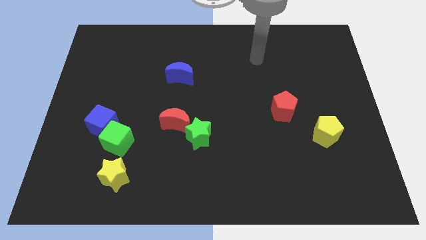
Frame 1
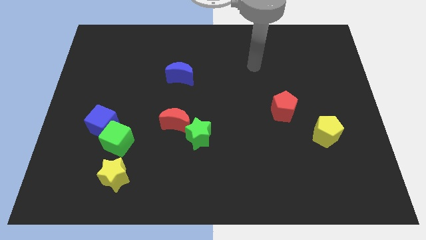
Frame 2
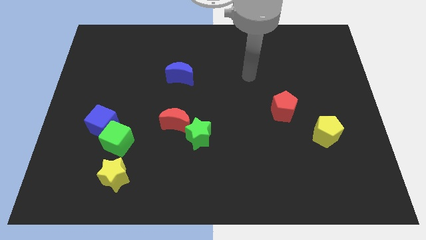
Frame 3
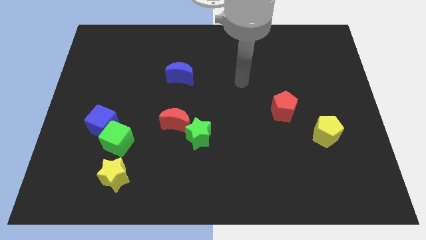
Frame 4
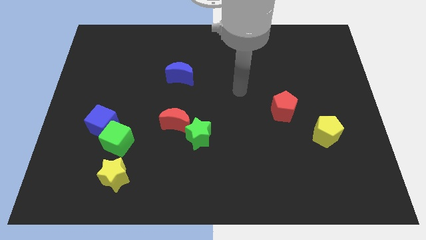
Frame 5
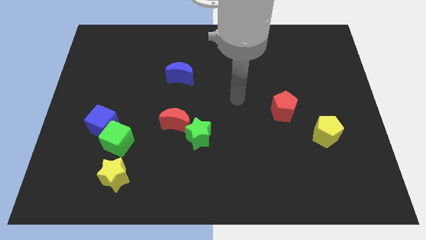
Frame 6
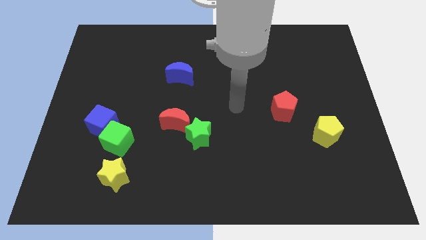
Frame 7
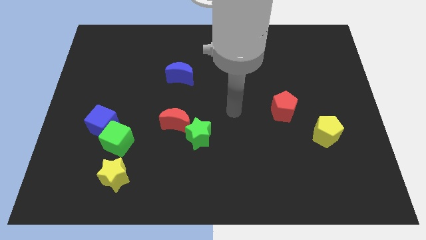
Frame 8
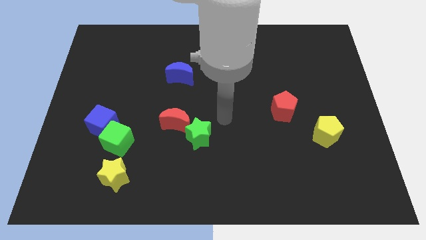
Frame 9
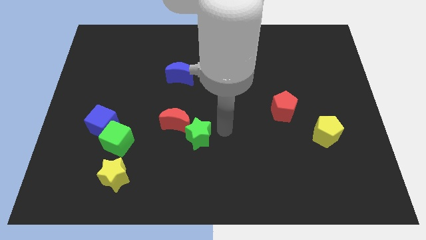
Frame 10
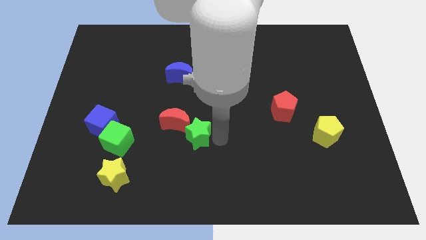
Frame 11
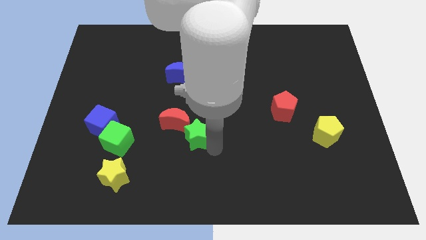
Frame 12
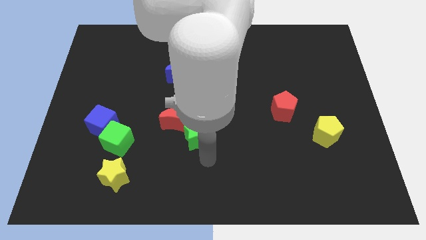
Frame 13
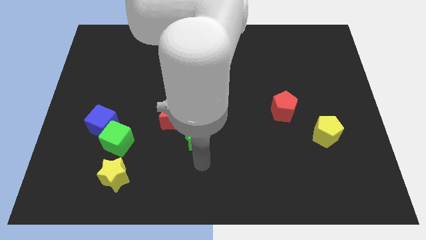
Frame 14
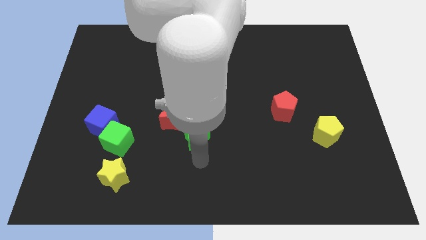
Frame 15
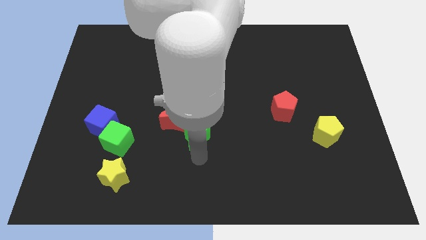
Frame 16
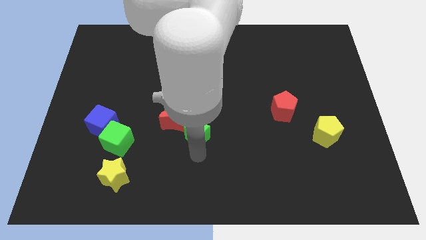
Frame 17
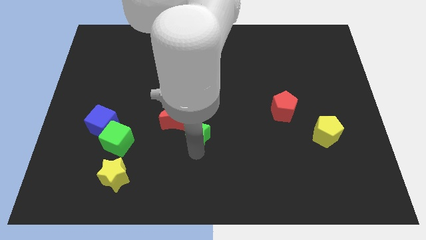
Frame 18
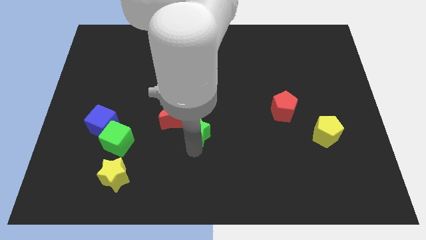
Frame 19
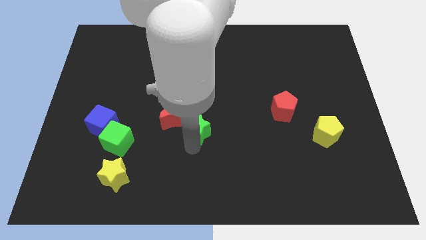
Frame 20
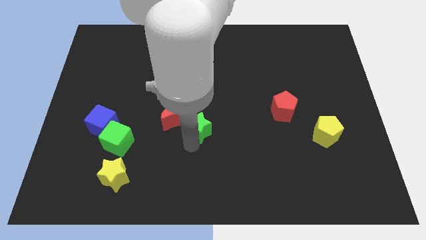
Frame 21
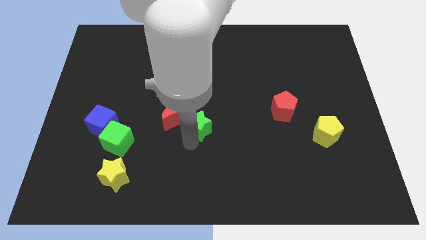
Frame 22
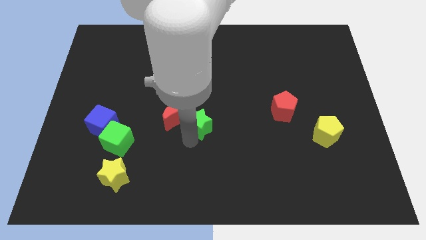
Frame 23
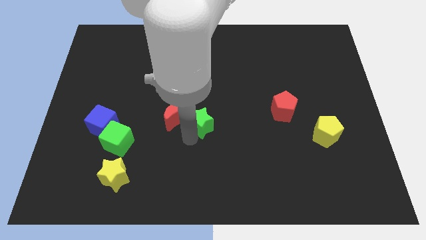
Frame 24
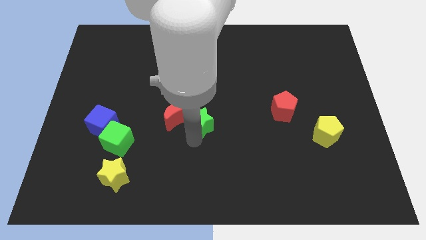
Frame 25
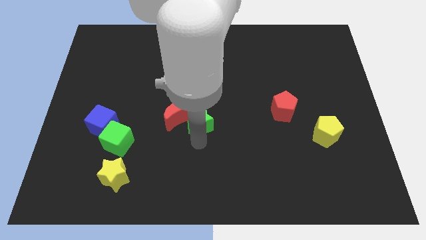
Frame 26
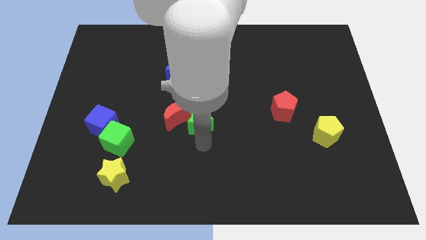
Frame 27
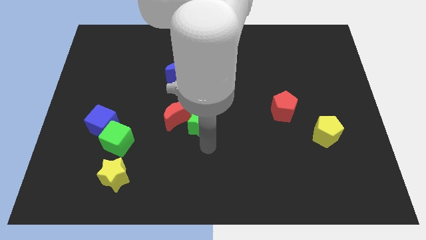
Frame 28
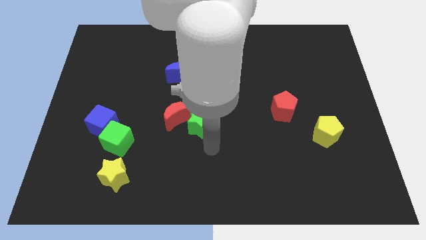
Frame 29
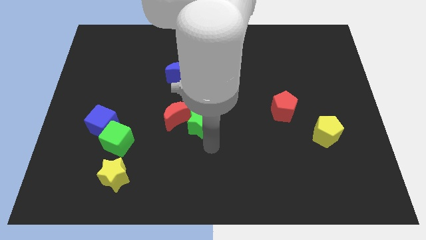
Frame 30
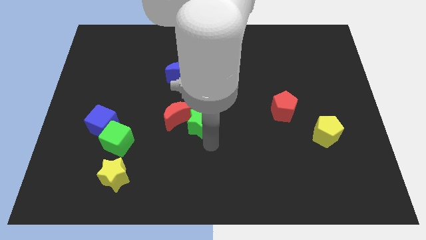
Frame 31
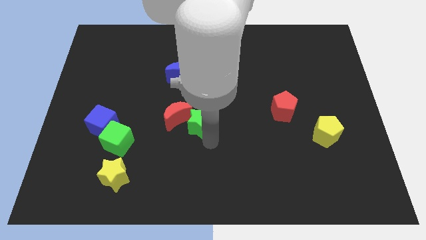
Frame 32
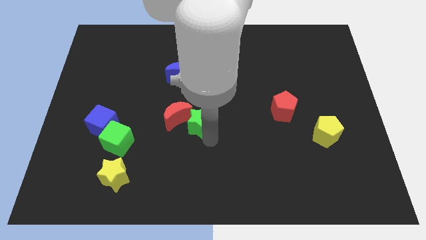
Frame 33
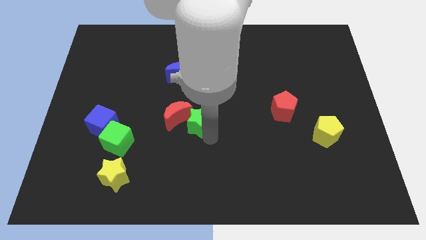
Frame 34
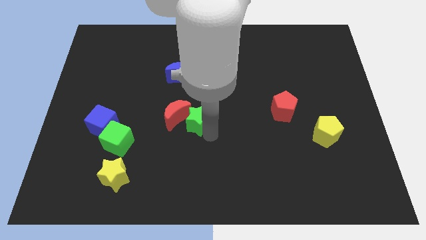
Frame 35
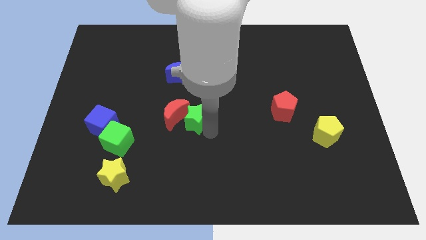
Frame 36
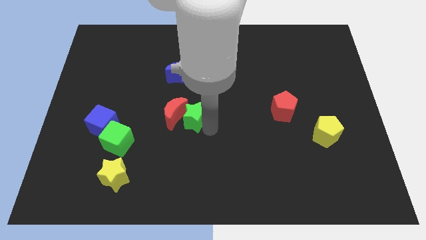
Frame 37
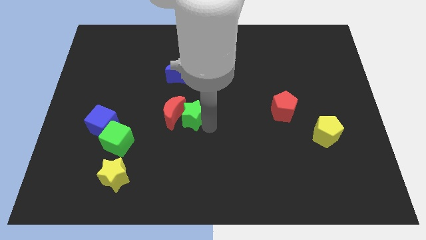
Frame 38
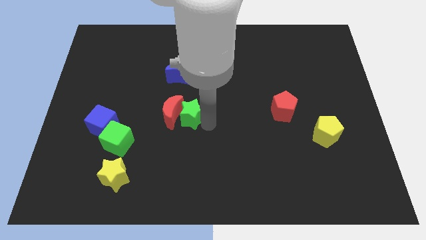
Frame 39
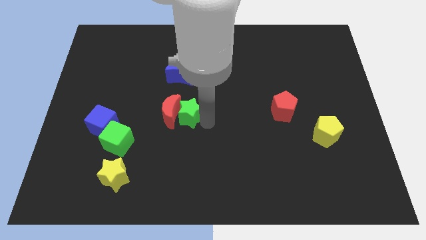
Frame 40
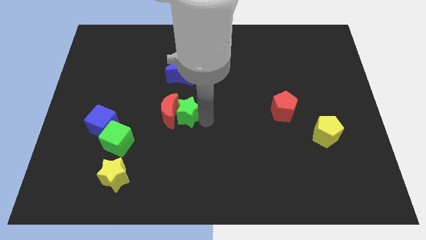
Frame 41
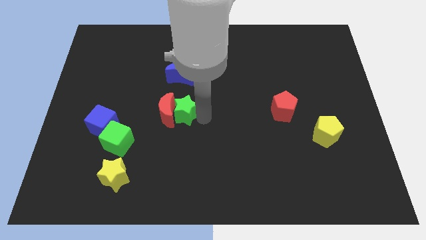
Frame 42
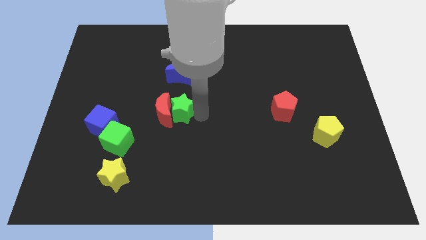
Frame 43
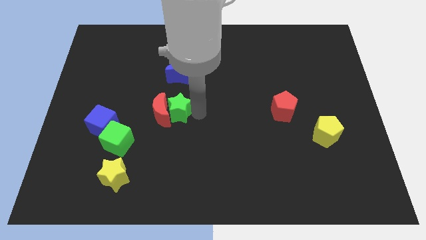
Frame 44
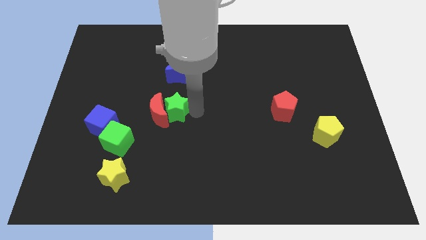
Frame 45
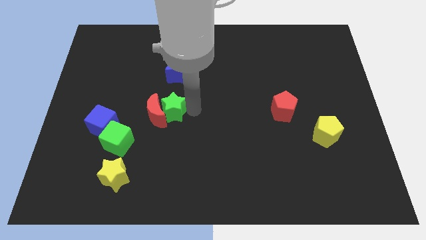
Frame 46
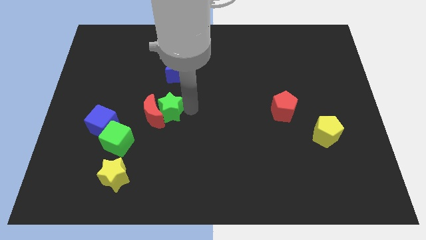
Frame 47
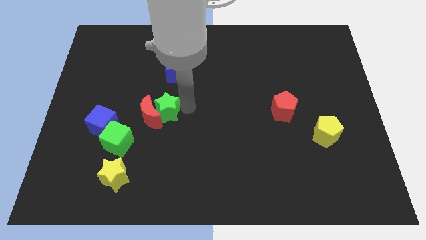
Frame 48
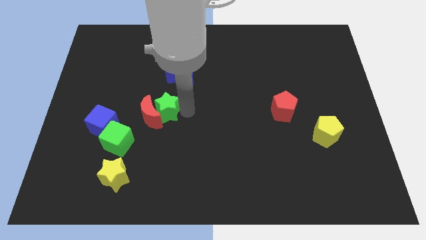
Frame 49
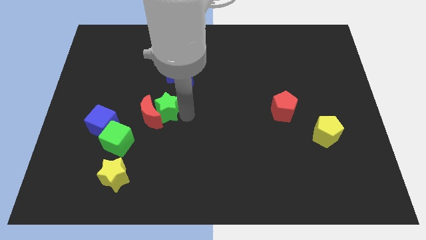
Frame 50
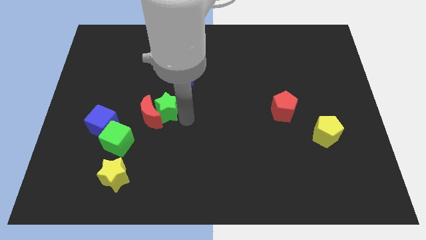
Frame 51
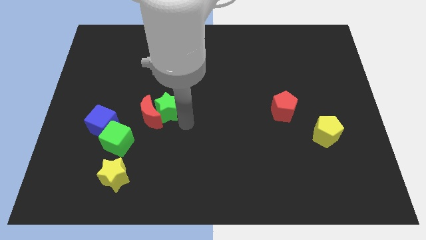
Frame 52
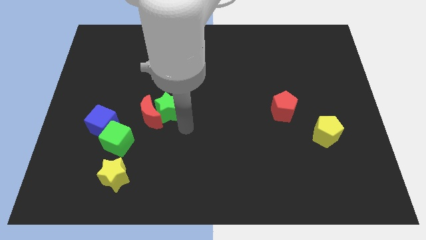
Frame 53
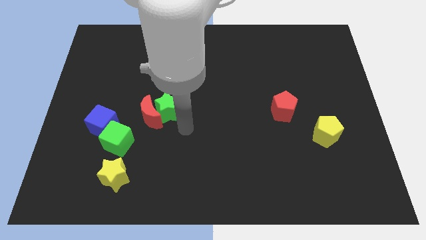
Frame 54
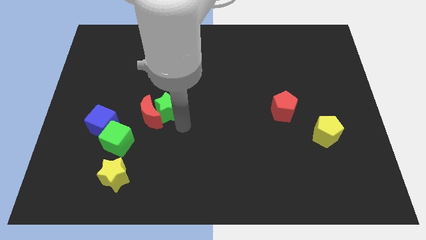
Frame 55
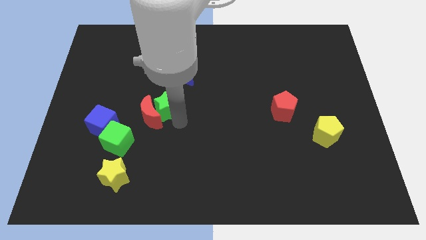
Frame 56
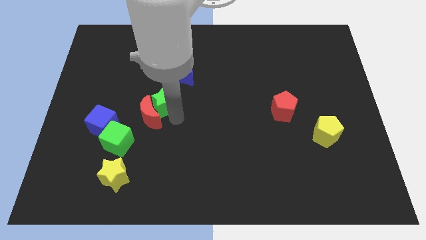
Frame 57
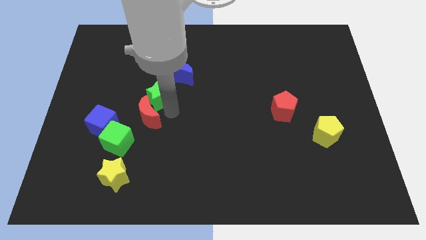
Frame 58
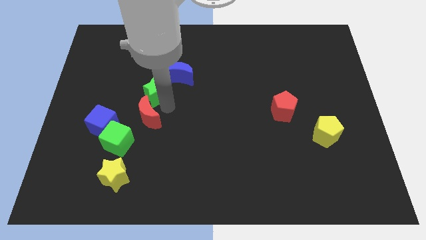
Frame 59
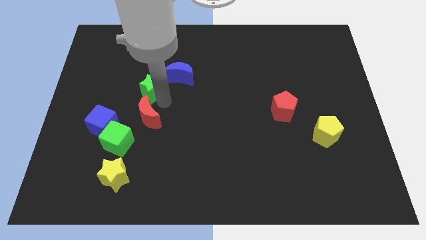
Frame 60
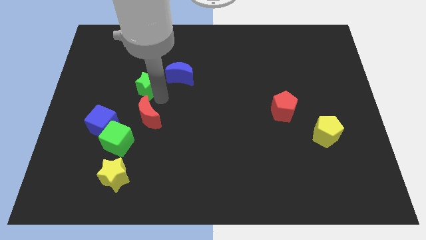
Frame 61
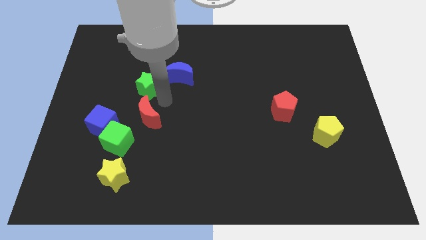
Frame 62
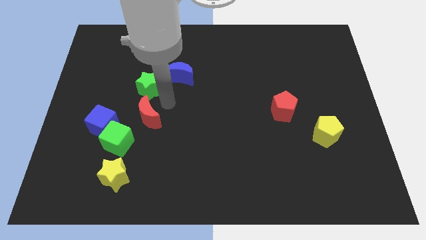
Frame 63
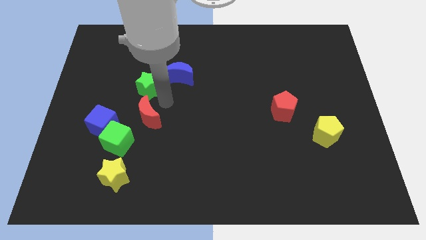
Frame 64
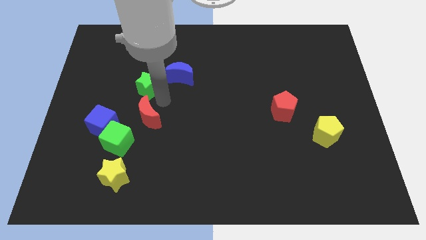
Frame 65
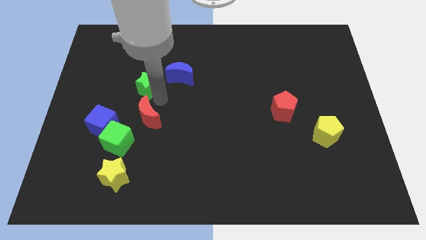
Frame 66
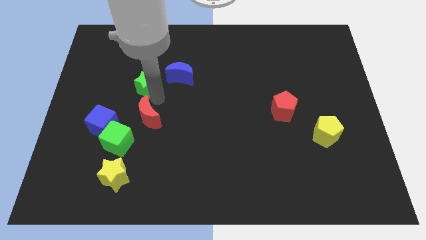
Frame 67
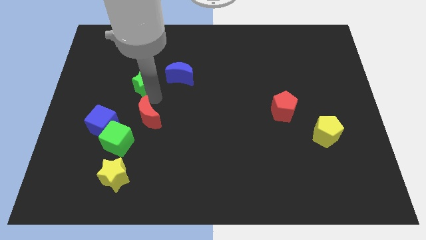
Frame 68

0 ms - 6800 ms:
push the green star up and to the left diagonally

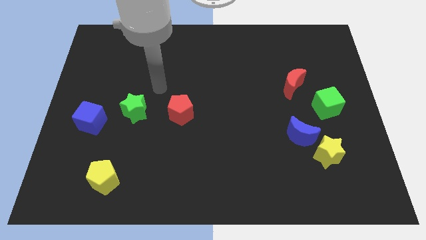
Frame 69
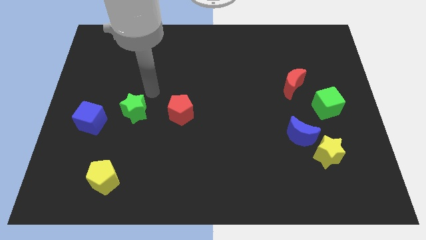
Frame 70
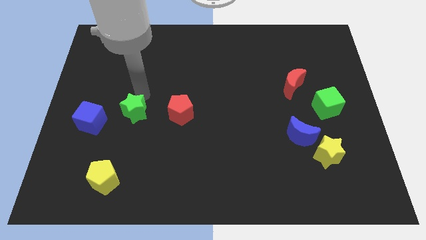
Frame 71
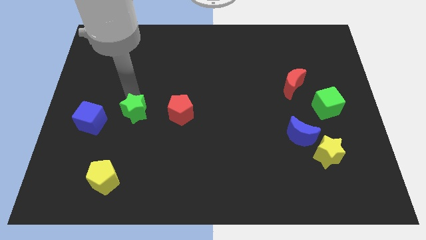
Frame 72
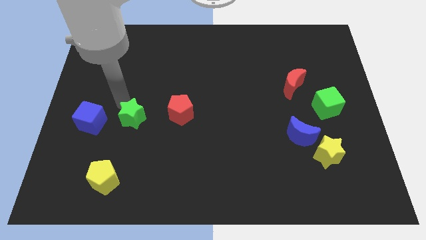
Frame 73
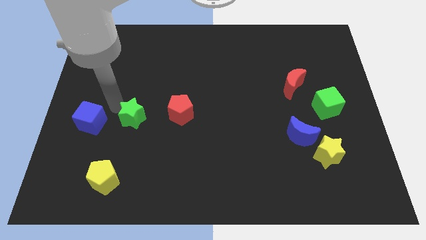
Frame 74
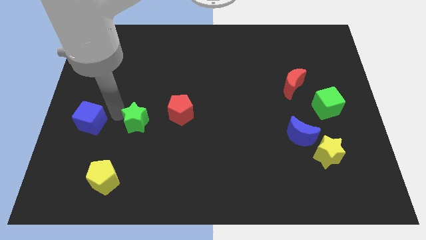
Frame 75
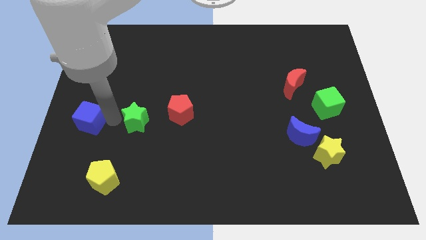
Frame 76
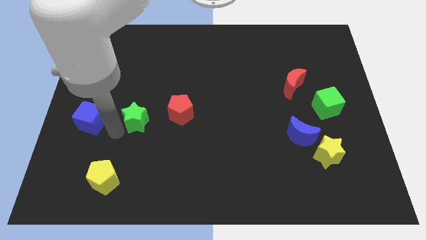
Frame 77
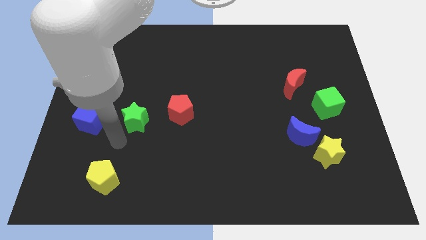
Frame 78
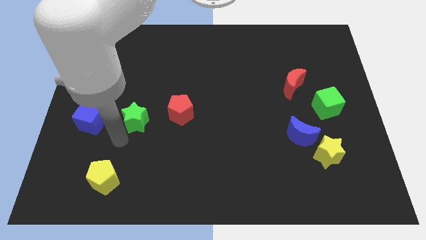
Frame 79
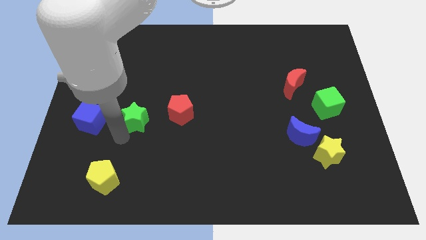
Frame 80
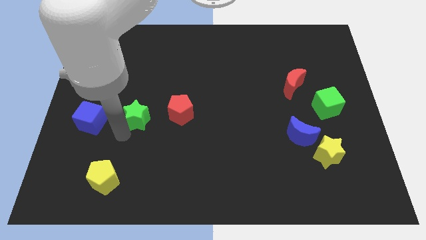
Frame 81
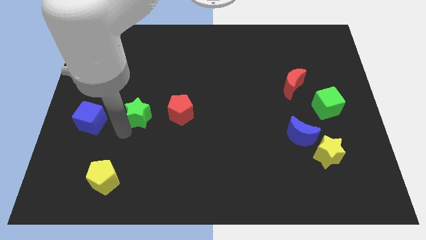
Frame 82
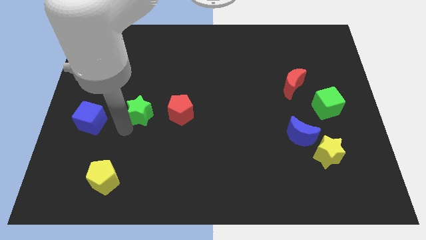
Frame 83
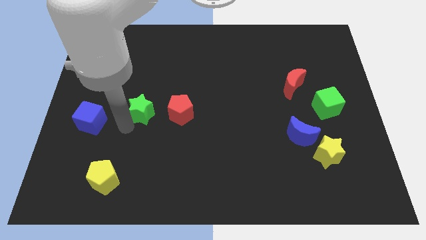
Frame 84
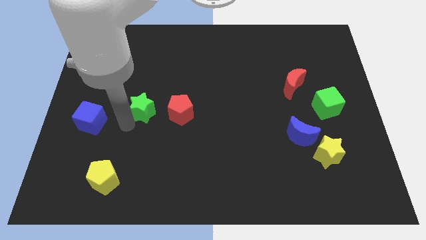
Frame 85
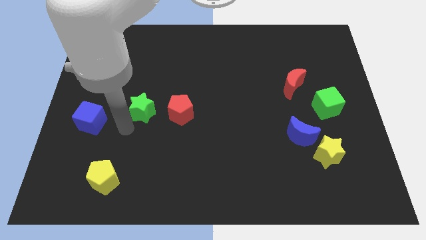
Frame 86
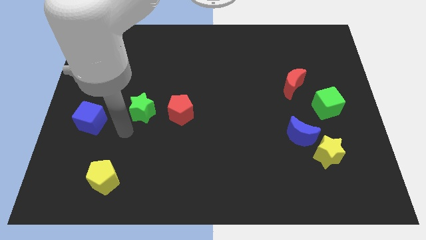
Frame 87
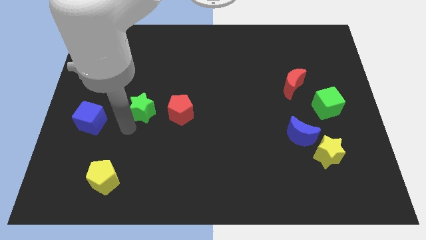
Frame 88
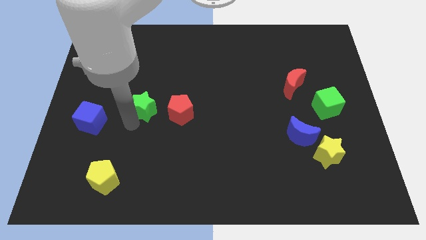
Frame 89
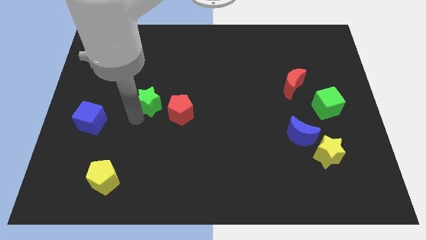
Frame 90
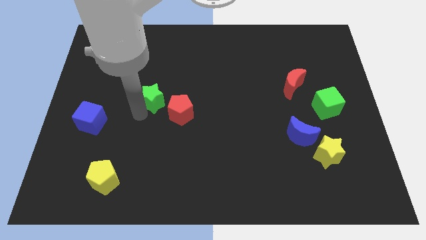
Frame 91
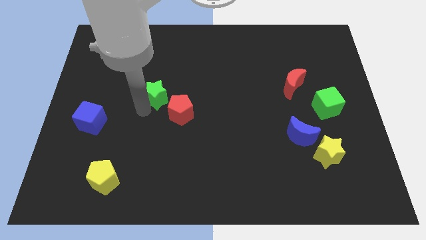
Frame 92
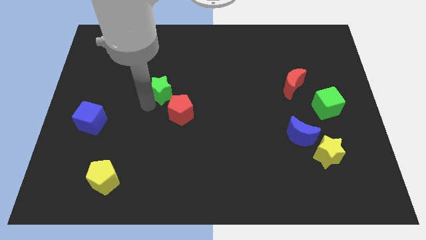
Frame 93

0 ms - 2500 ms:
slide the green star a little diagonally up and to the right
